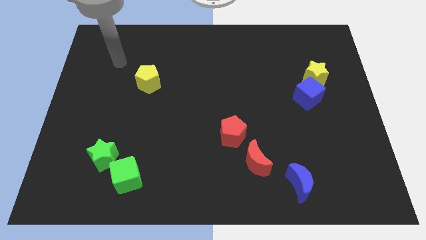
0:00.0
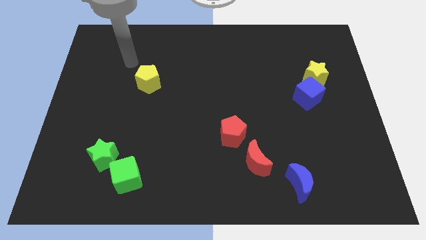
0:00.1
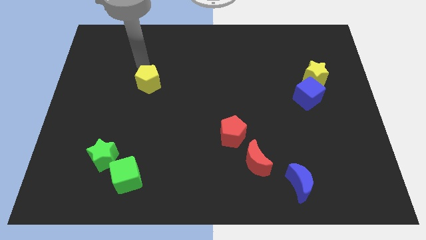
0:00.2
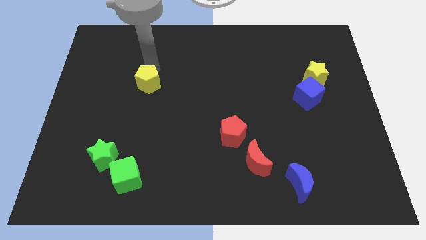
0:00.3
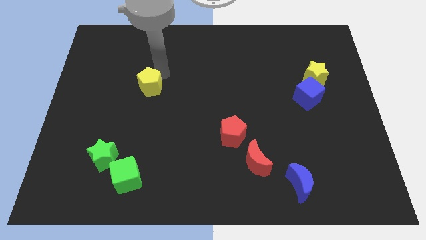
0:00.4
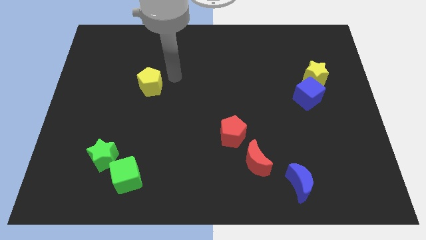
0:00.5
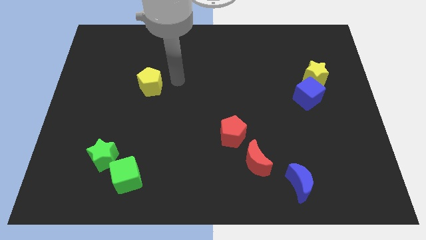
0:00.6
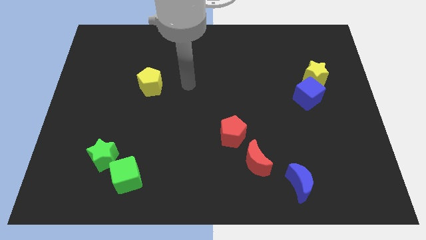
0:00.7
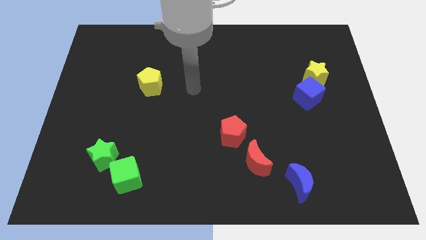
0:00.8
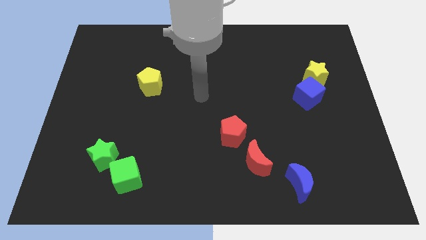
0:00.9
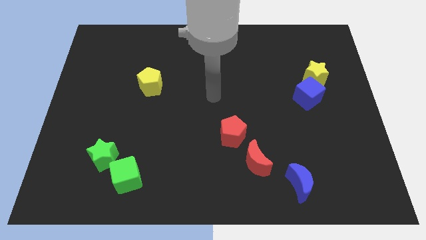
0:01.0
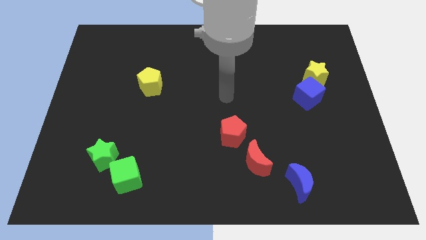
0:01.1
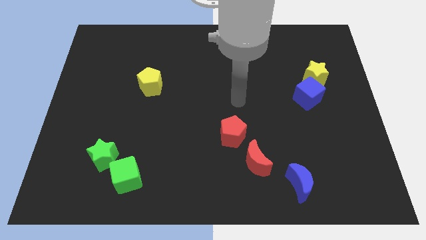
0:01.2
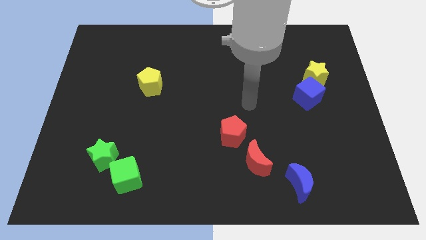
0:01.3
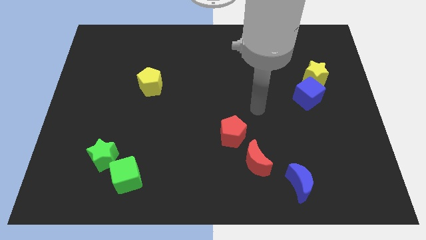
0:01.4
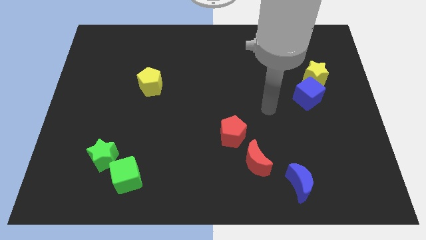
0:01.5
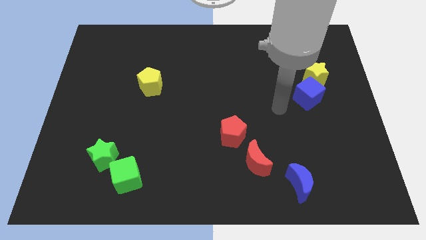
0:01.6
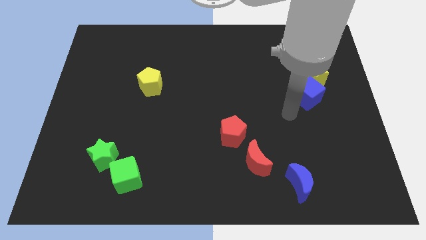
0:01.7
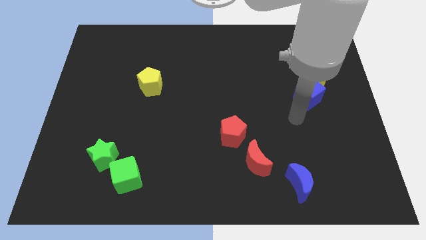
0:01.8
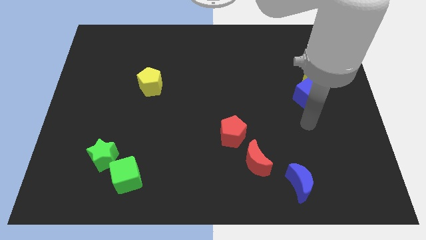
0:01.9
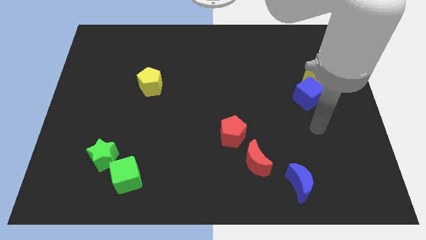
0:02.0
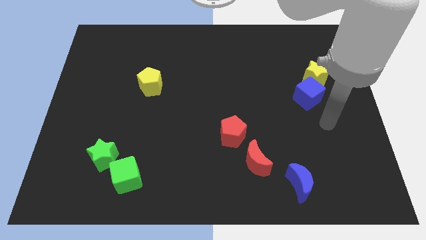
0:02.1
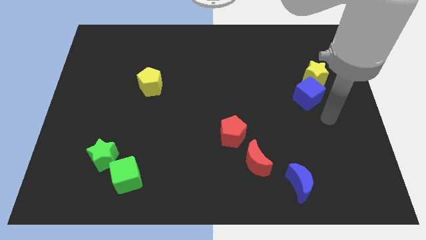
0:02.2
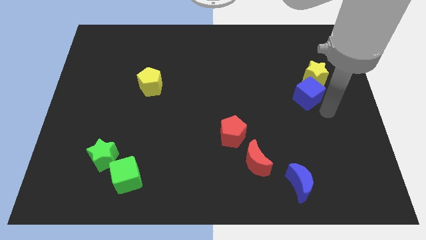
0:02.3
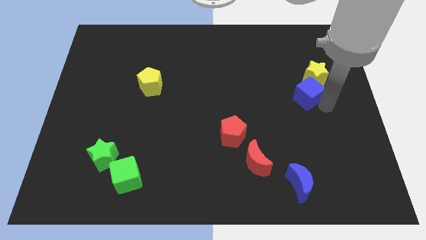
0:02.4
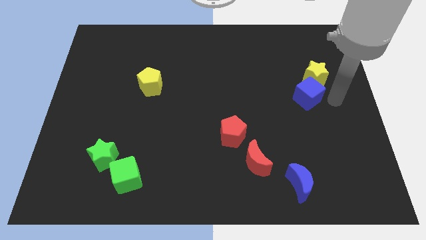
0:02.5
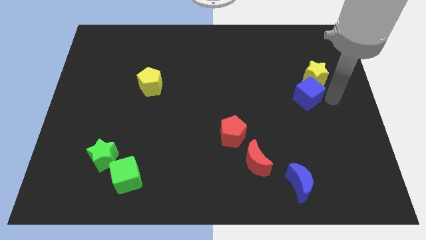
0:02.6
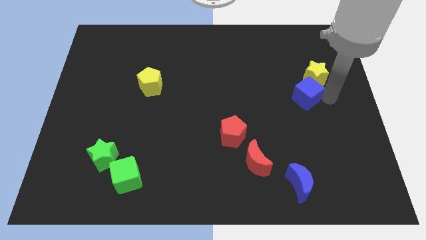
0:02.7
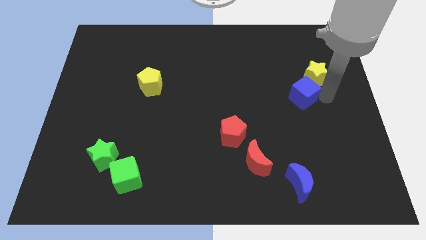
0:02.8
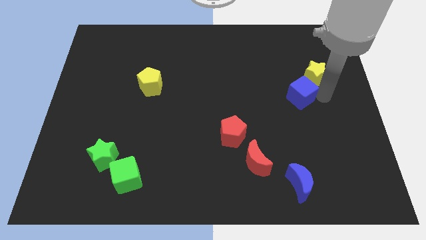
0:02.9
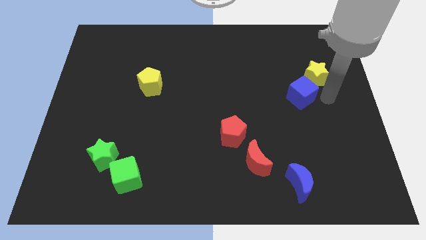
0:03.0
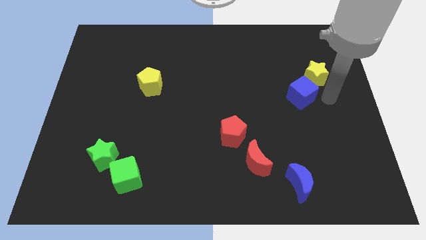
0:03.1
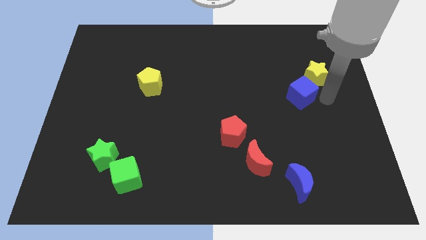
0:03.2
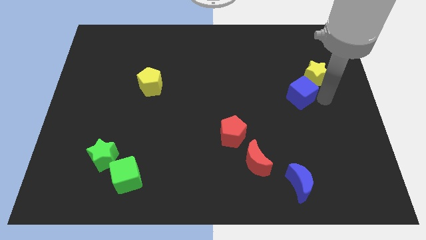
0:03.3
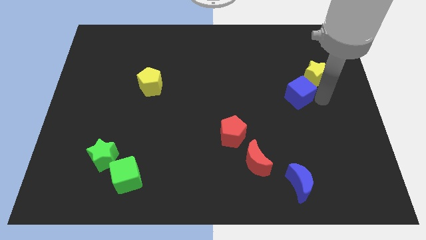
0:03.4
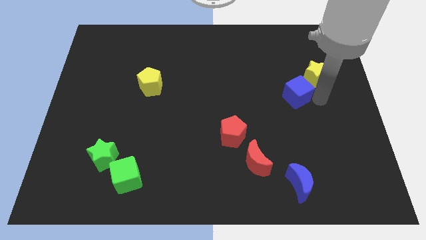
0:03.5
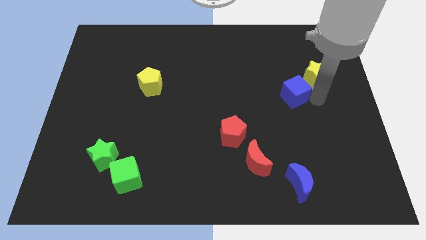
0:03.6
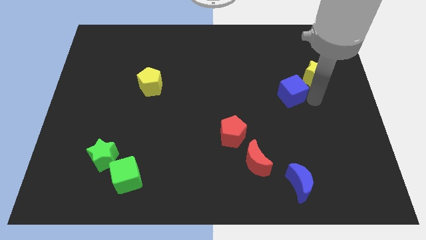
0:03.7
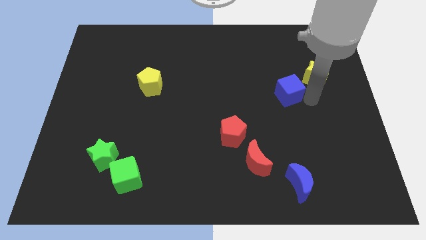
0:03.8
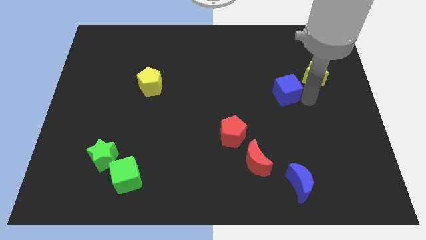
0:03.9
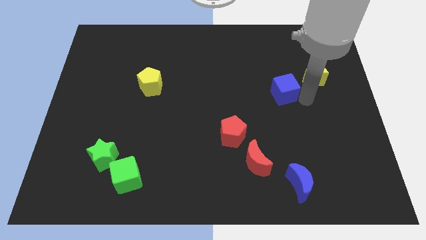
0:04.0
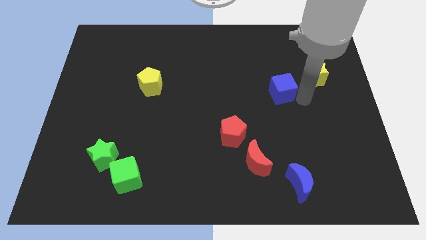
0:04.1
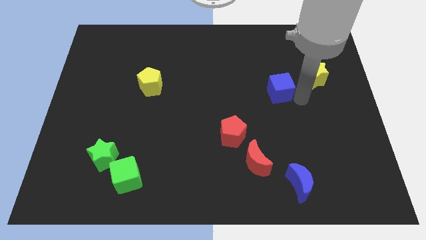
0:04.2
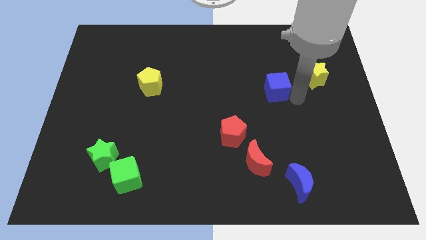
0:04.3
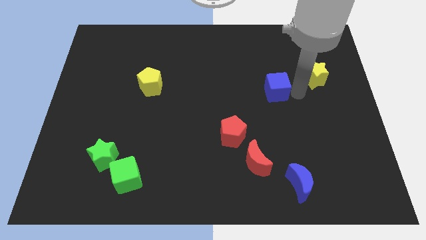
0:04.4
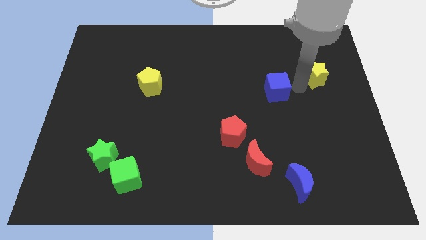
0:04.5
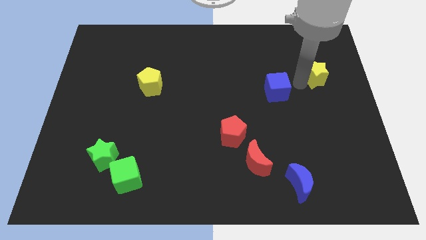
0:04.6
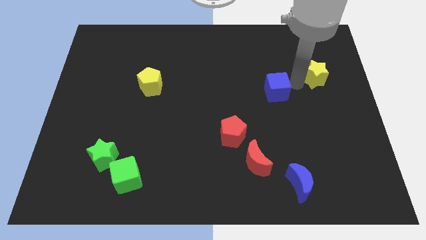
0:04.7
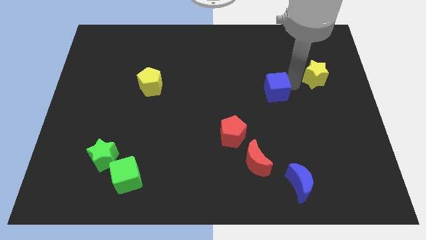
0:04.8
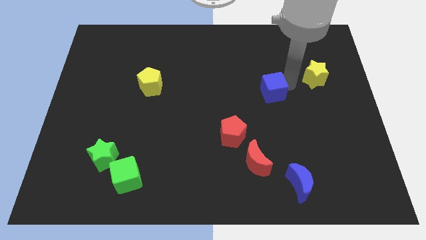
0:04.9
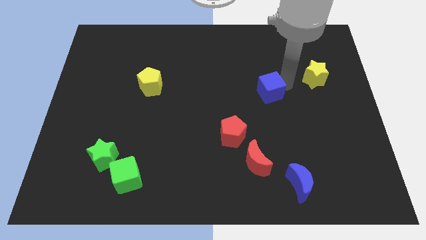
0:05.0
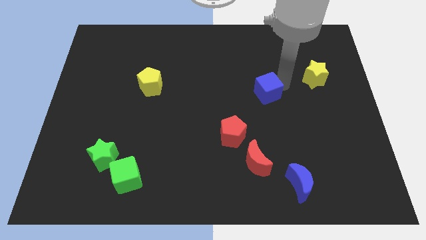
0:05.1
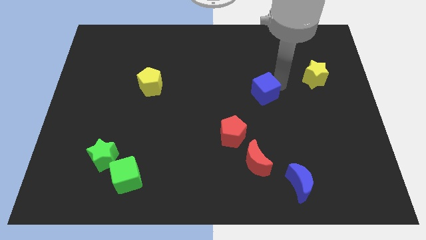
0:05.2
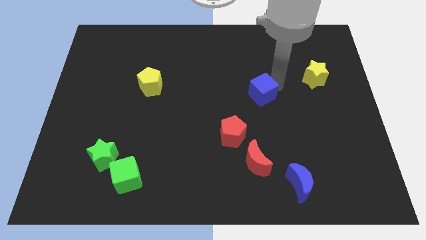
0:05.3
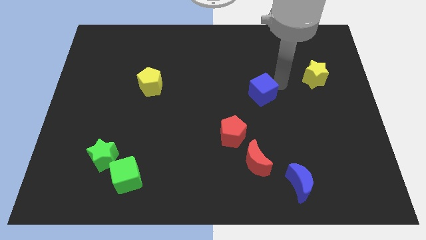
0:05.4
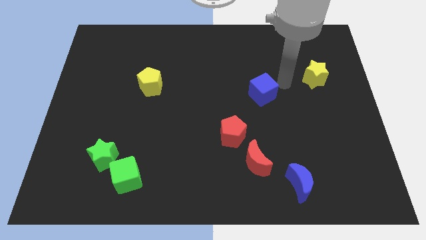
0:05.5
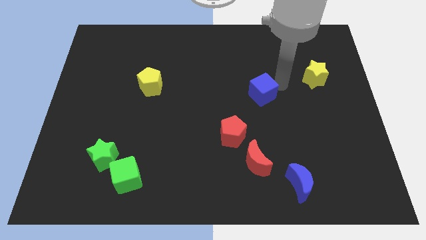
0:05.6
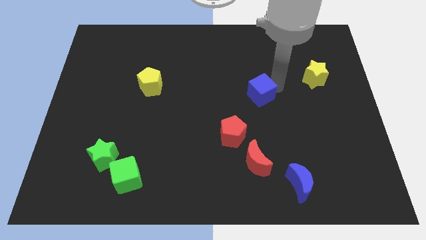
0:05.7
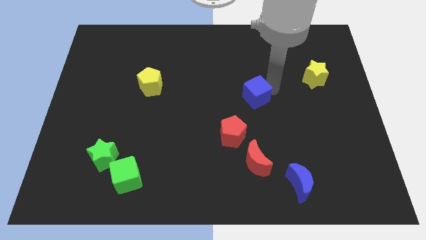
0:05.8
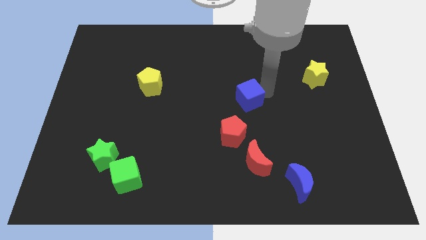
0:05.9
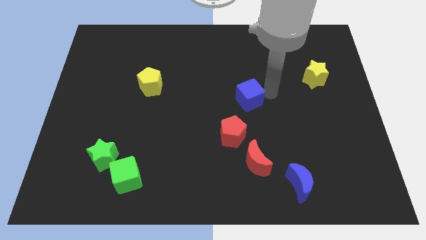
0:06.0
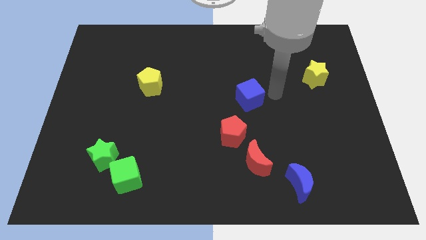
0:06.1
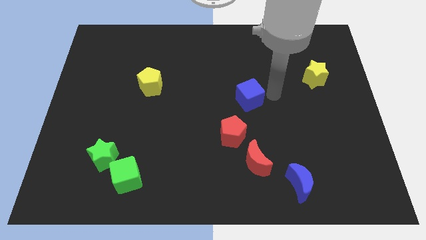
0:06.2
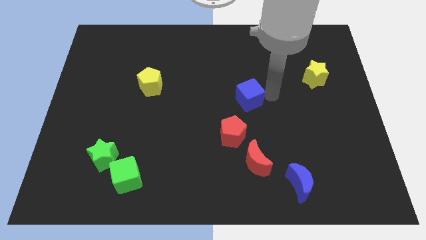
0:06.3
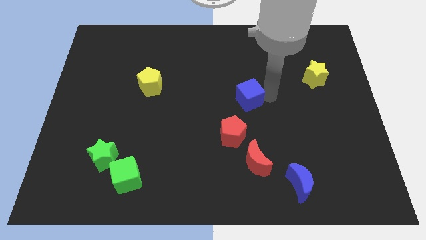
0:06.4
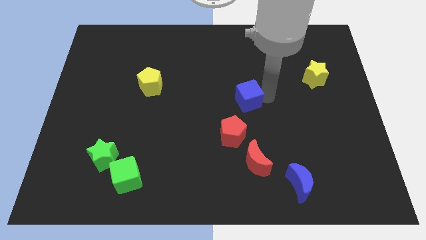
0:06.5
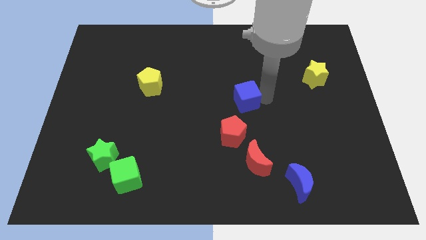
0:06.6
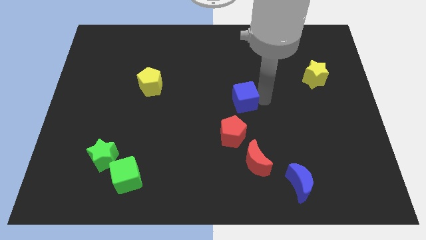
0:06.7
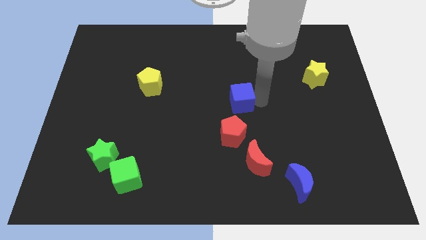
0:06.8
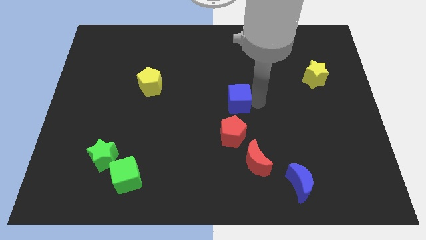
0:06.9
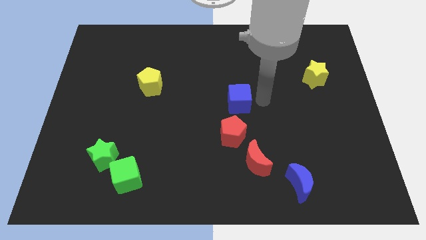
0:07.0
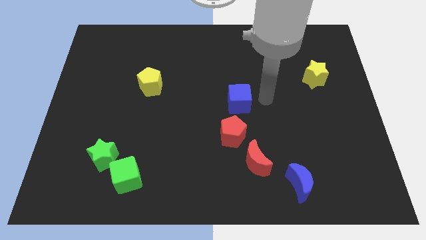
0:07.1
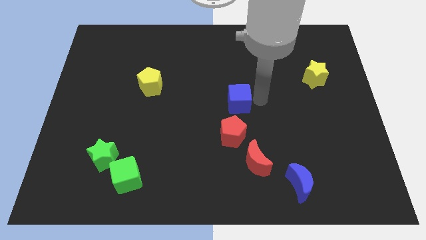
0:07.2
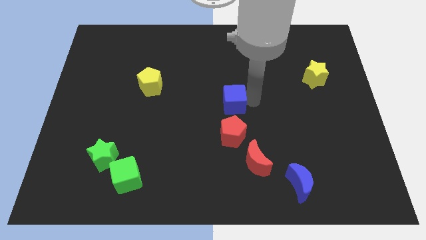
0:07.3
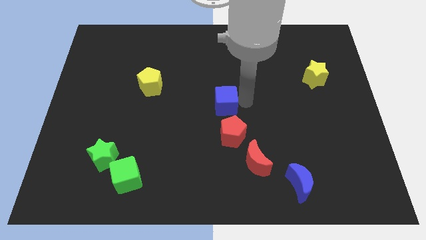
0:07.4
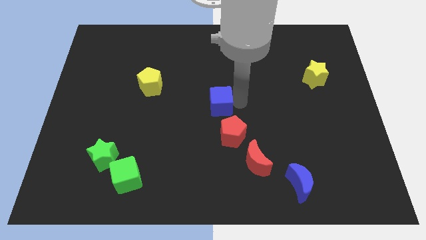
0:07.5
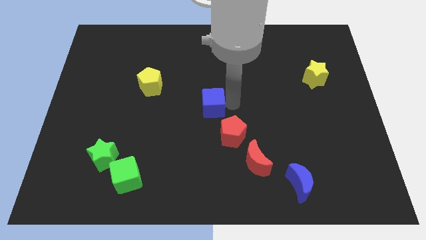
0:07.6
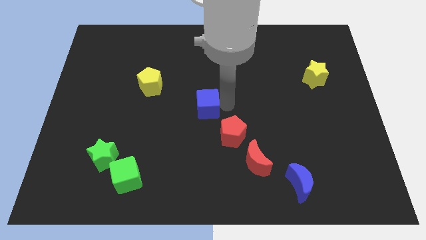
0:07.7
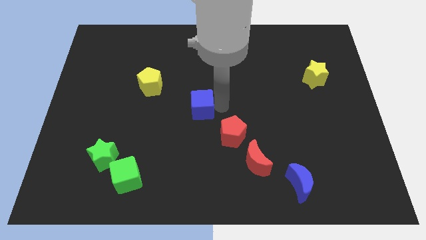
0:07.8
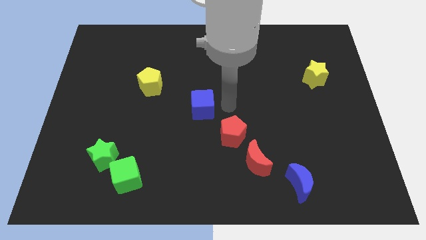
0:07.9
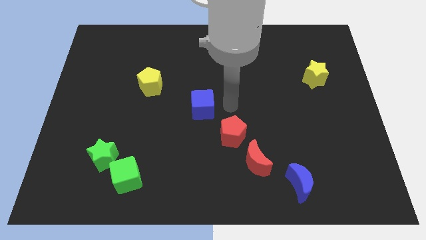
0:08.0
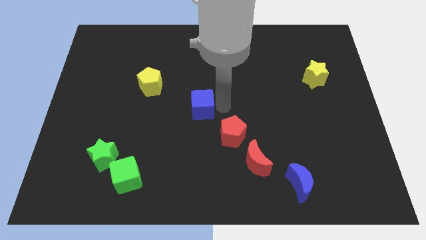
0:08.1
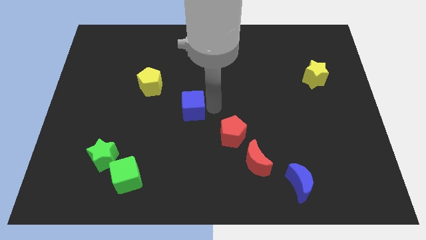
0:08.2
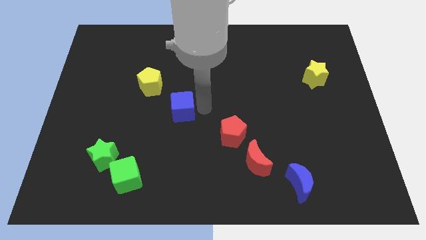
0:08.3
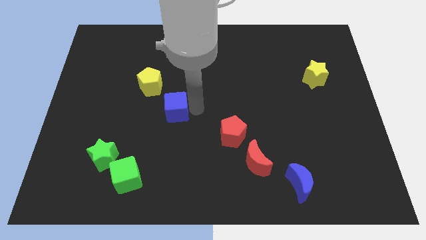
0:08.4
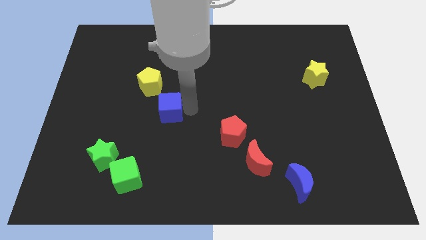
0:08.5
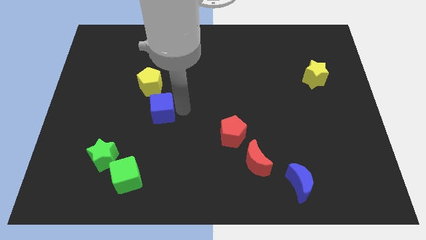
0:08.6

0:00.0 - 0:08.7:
slide the blue cube to the bottom side of the yellow pentagon
